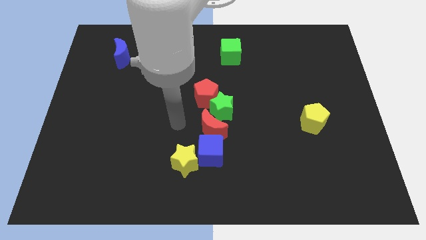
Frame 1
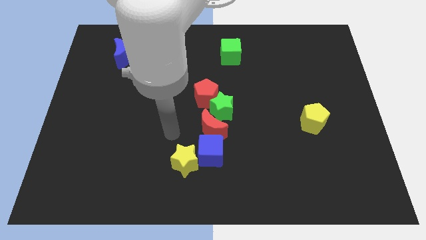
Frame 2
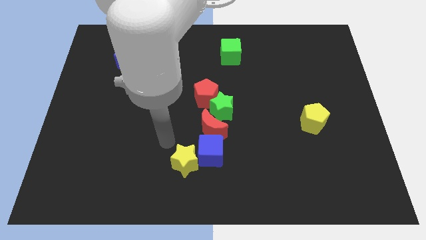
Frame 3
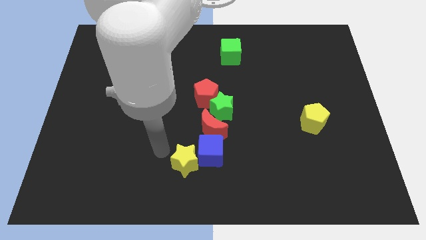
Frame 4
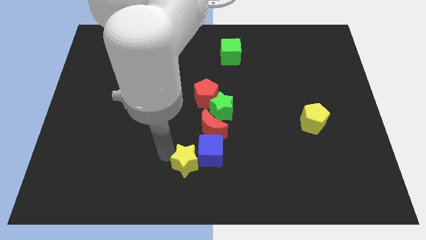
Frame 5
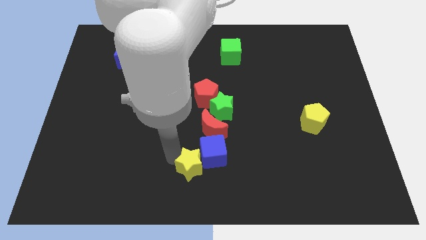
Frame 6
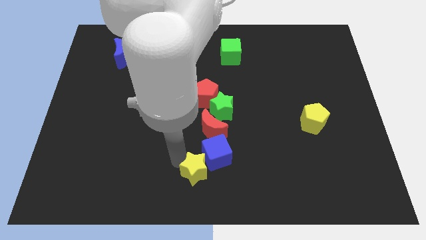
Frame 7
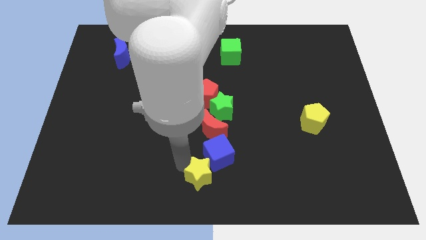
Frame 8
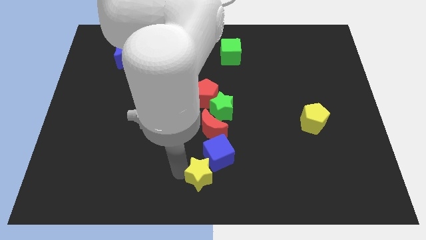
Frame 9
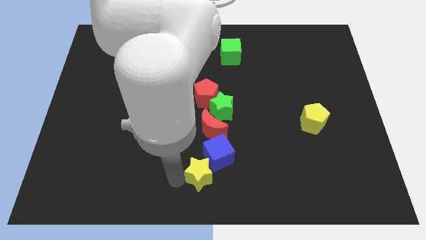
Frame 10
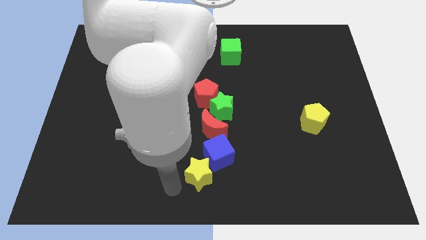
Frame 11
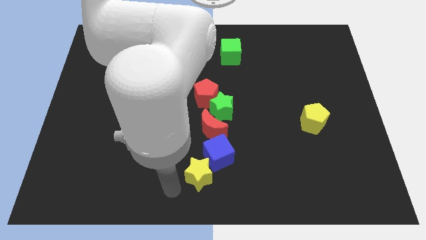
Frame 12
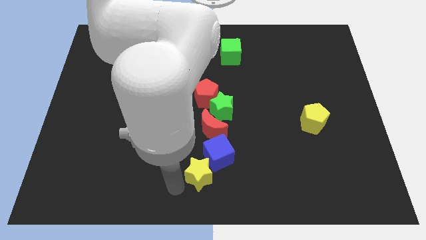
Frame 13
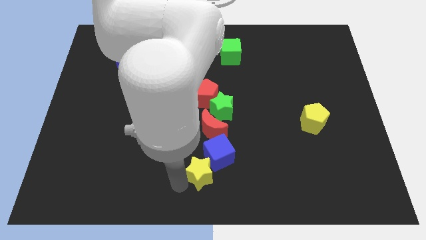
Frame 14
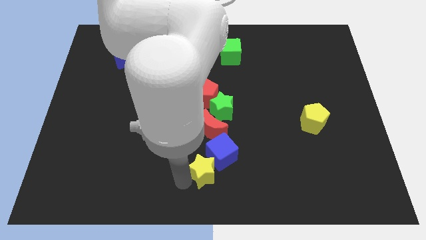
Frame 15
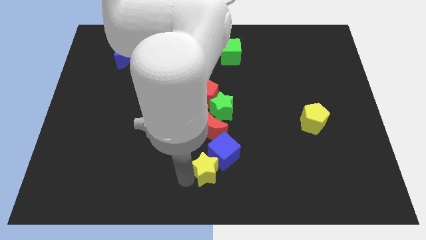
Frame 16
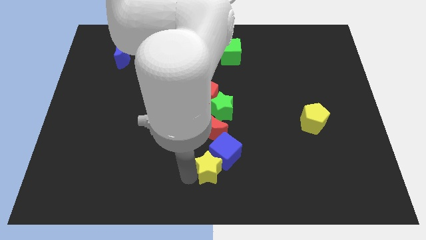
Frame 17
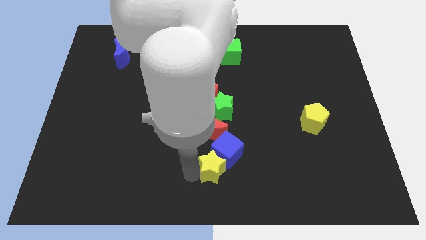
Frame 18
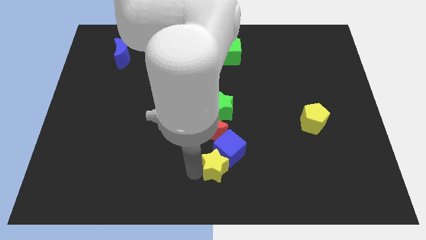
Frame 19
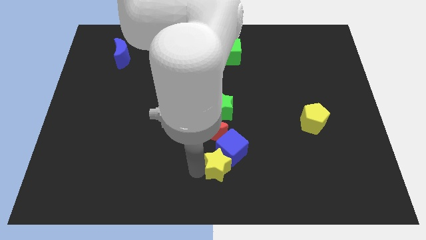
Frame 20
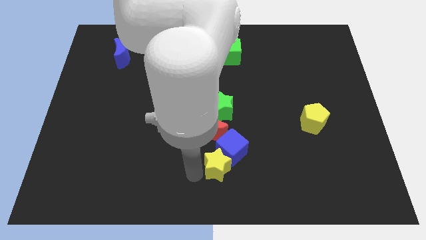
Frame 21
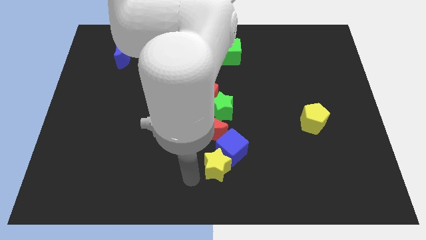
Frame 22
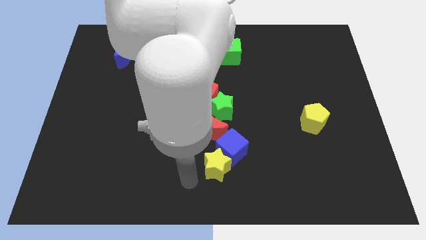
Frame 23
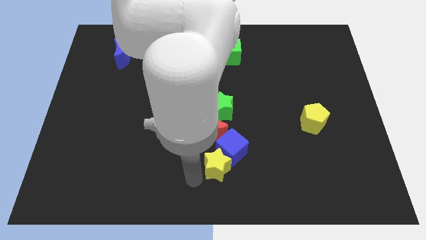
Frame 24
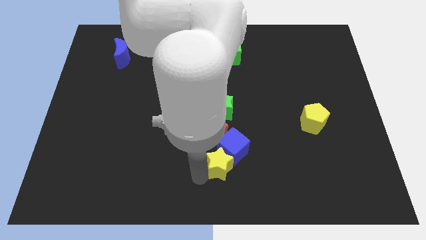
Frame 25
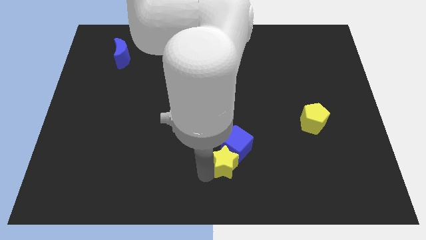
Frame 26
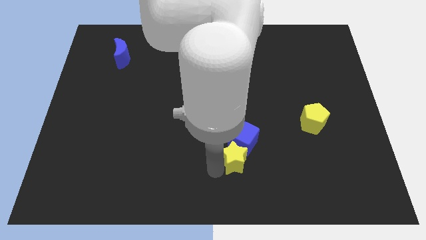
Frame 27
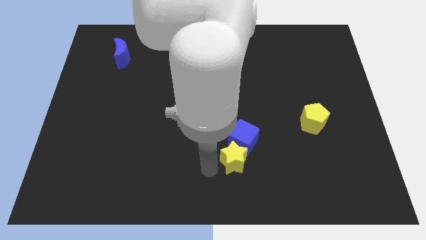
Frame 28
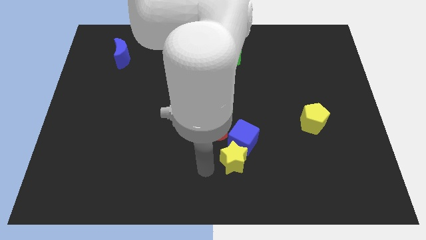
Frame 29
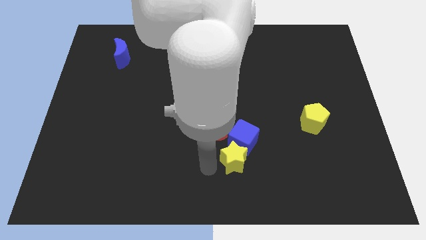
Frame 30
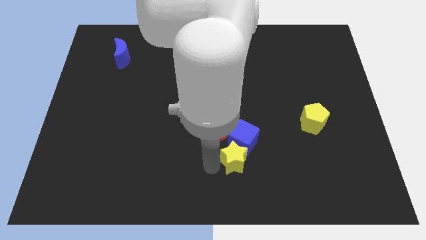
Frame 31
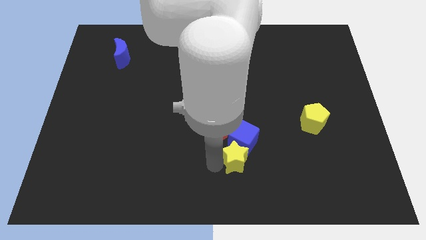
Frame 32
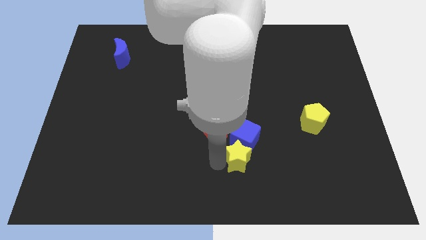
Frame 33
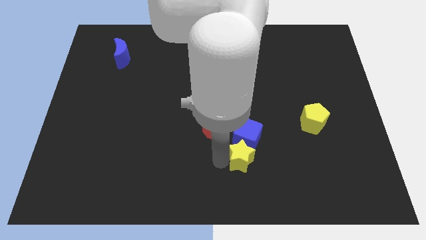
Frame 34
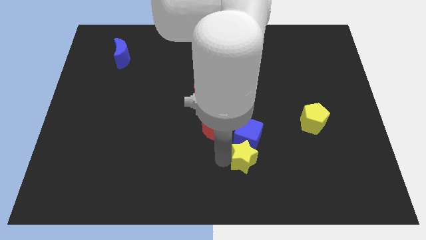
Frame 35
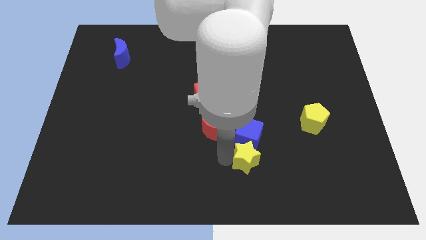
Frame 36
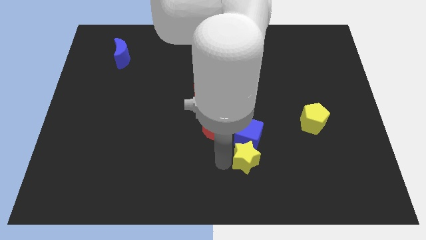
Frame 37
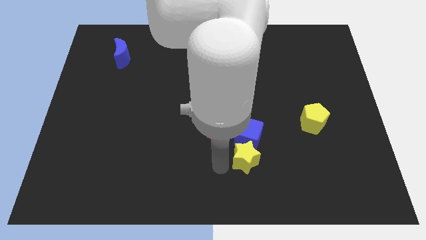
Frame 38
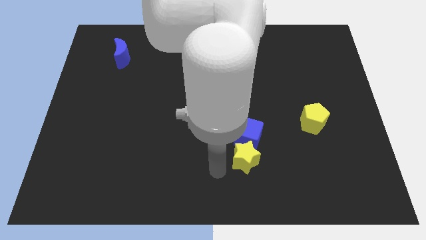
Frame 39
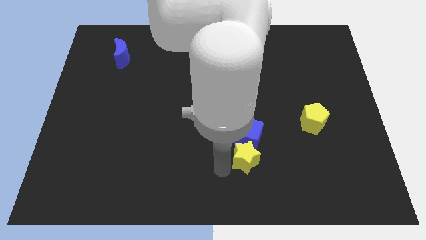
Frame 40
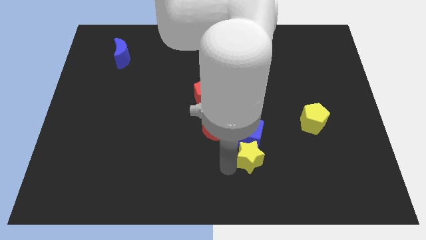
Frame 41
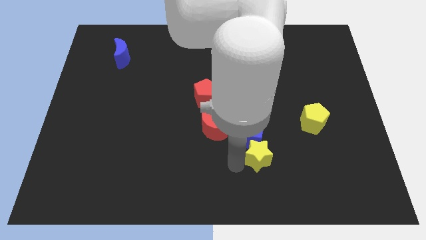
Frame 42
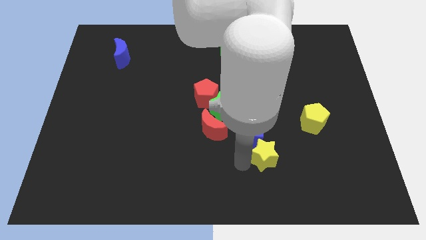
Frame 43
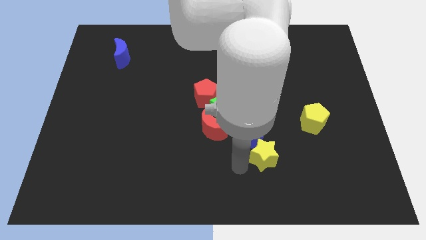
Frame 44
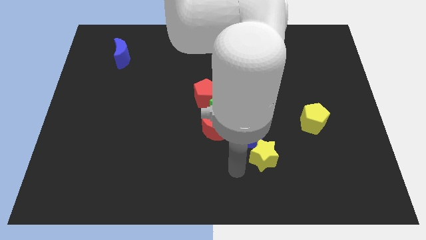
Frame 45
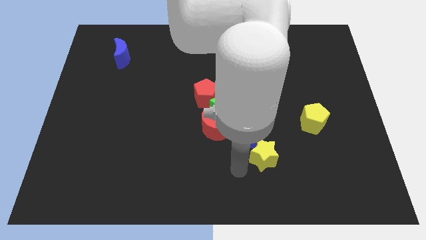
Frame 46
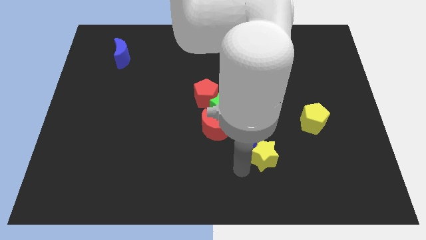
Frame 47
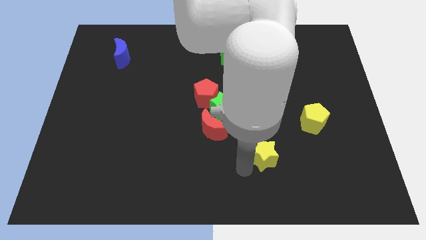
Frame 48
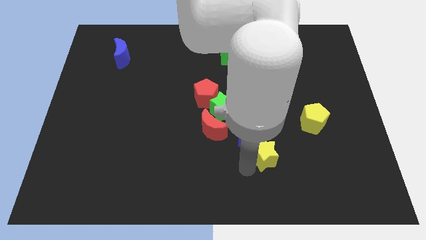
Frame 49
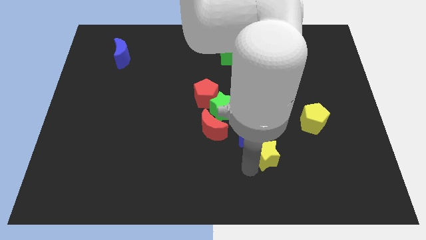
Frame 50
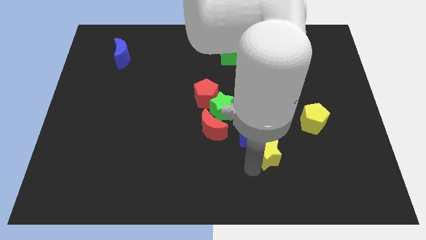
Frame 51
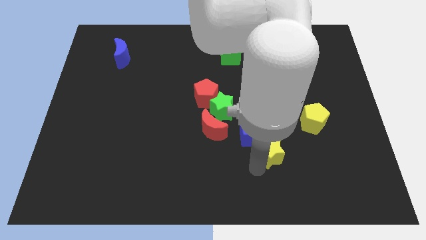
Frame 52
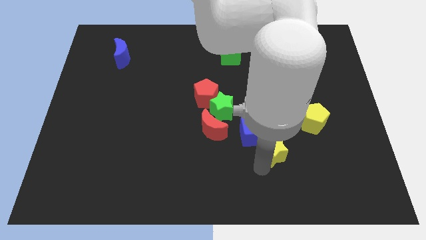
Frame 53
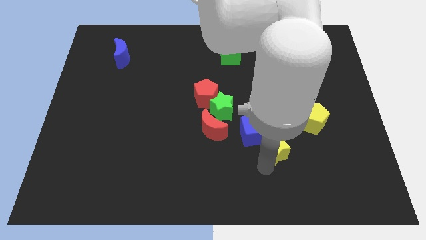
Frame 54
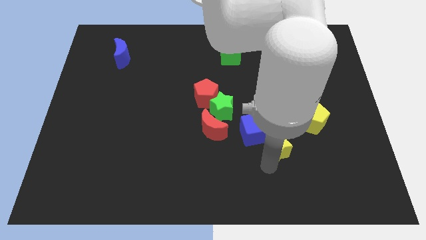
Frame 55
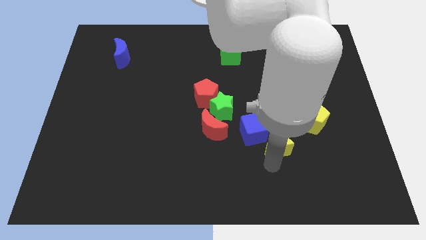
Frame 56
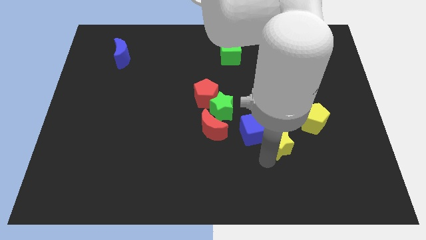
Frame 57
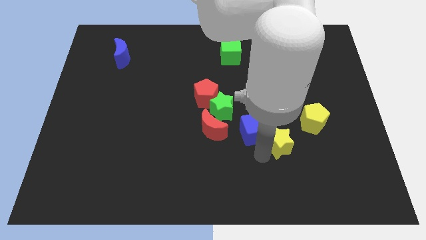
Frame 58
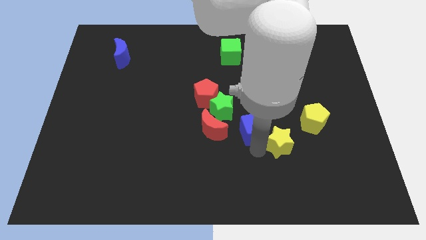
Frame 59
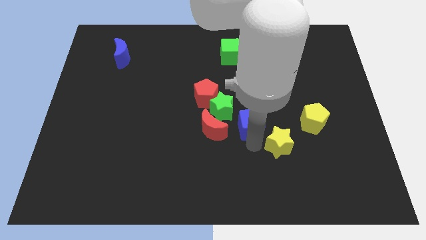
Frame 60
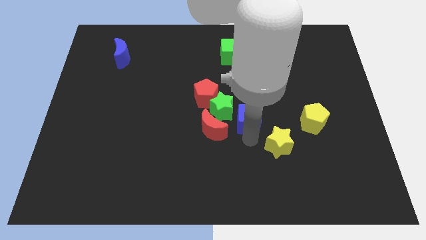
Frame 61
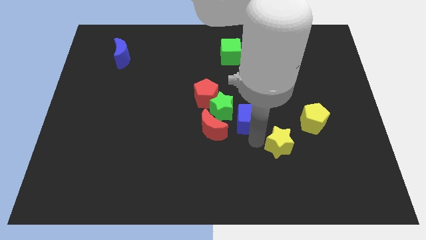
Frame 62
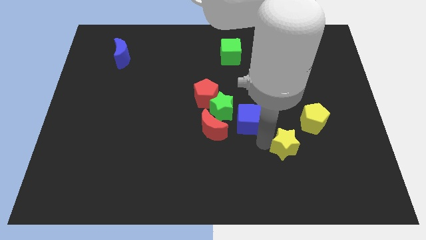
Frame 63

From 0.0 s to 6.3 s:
push the yellow star right

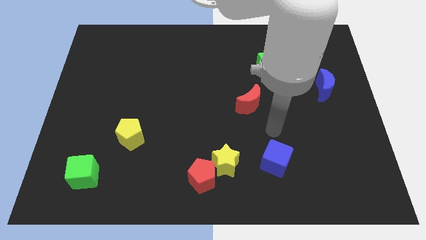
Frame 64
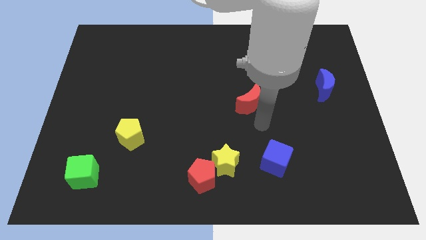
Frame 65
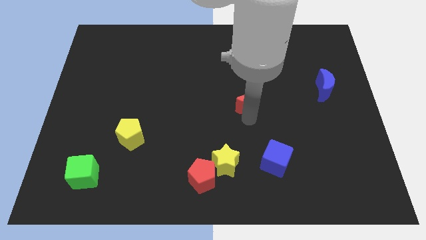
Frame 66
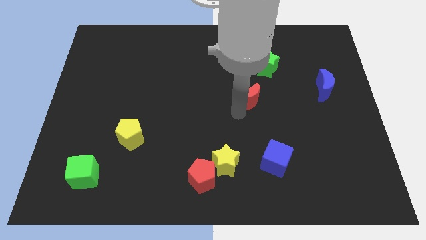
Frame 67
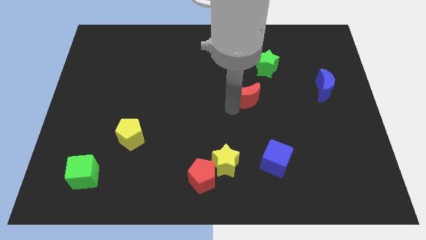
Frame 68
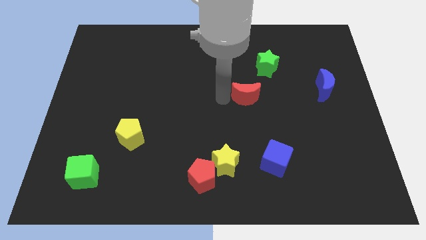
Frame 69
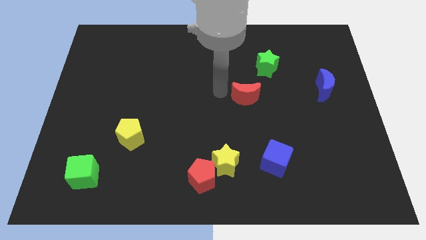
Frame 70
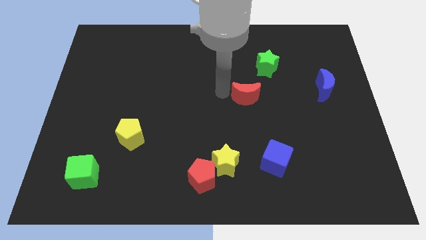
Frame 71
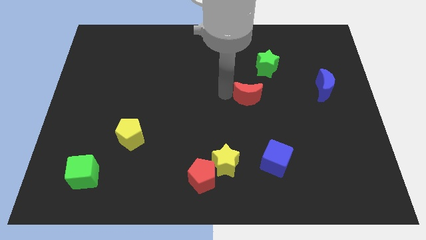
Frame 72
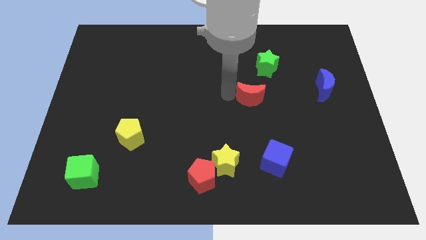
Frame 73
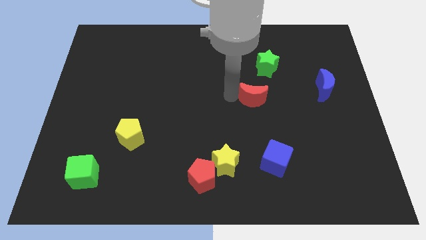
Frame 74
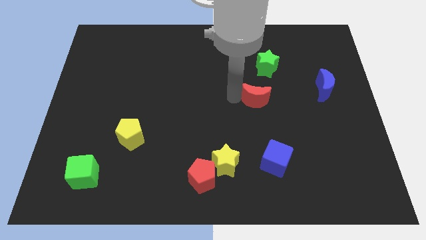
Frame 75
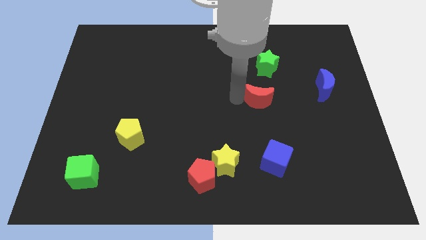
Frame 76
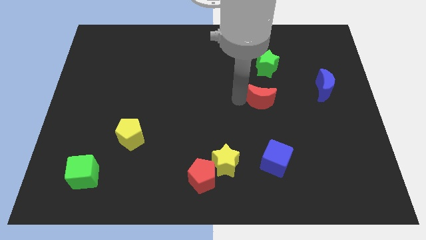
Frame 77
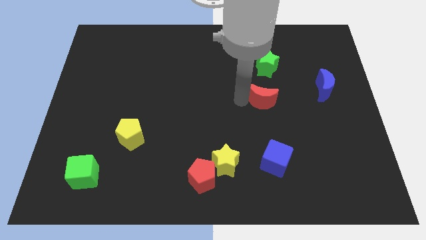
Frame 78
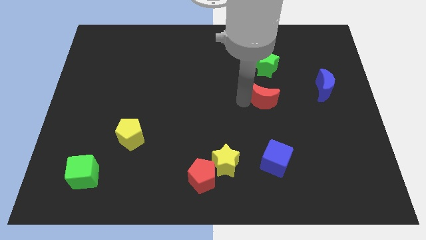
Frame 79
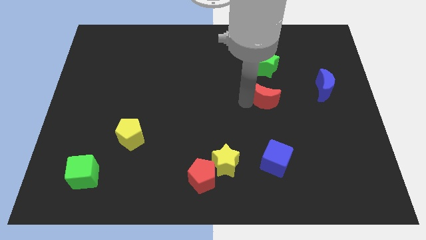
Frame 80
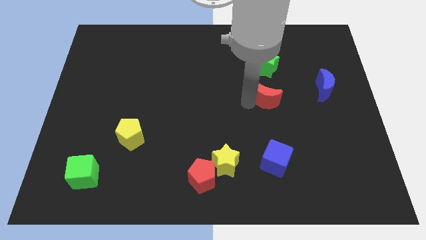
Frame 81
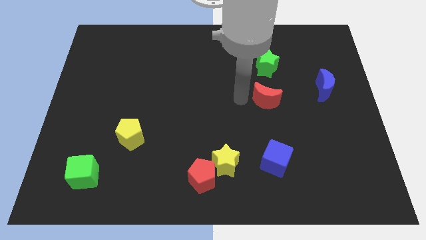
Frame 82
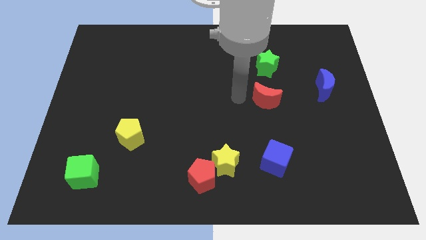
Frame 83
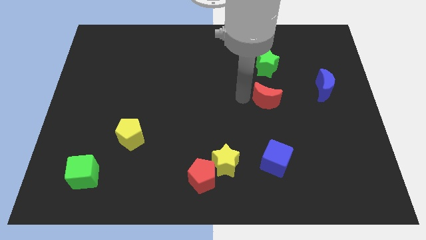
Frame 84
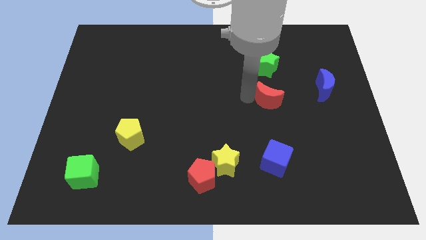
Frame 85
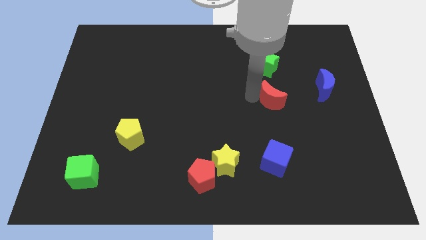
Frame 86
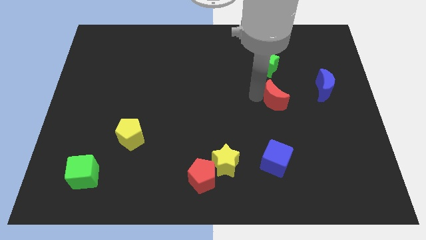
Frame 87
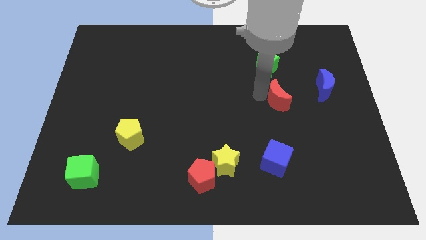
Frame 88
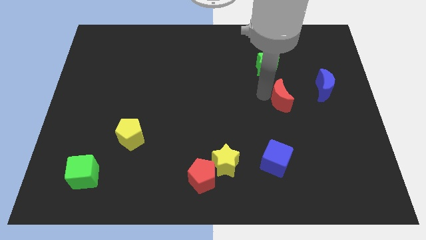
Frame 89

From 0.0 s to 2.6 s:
push the red moon slightly to the right
